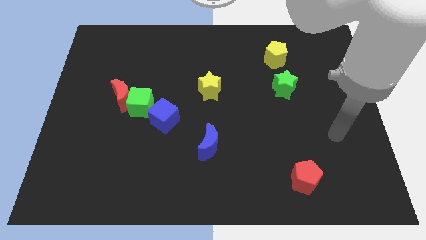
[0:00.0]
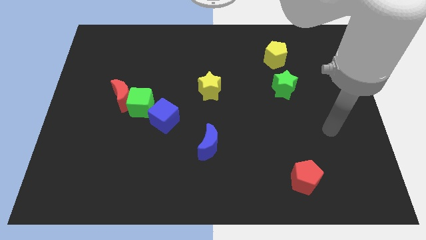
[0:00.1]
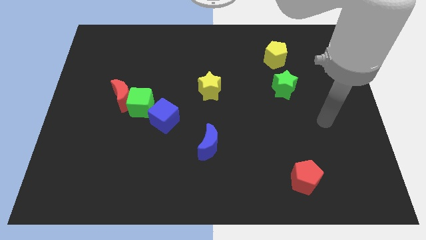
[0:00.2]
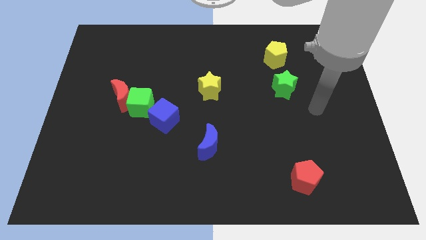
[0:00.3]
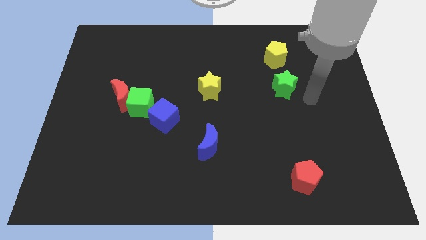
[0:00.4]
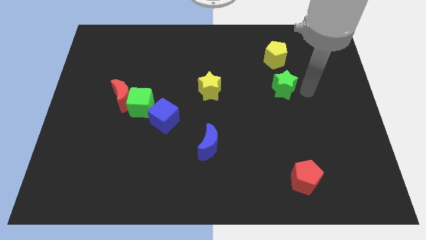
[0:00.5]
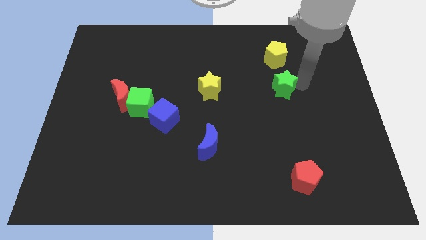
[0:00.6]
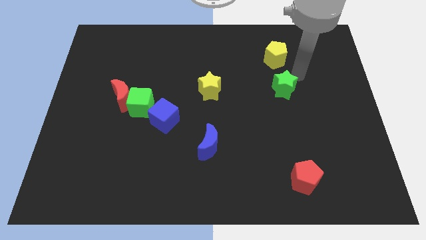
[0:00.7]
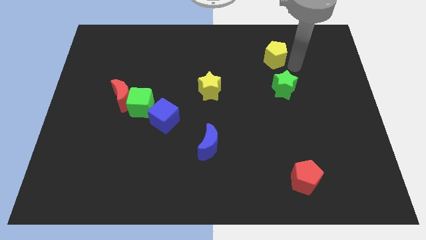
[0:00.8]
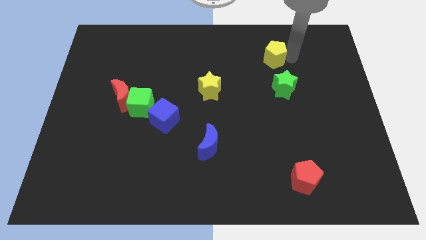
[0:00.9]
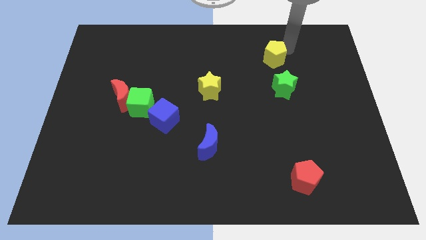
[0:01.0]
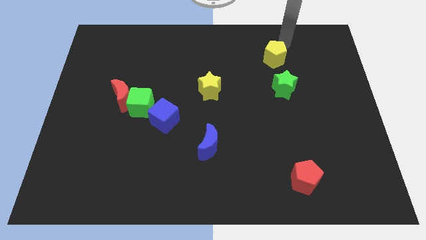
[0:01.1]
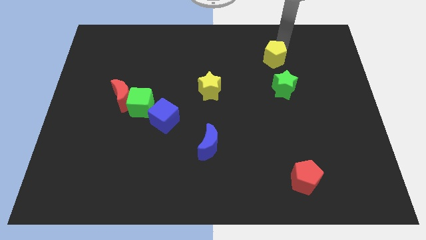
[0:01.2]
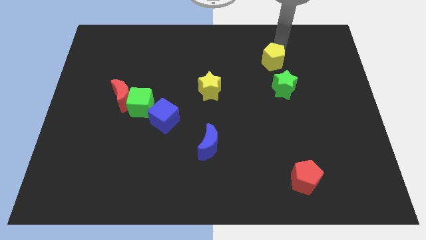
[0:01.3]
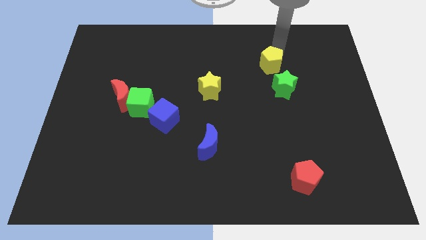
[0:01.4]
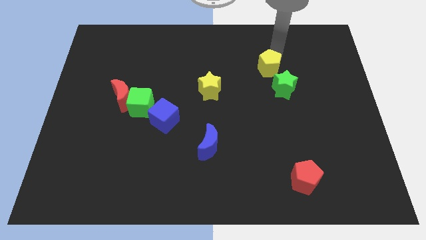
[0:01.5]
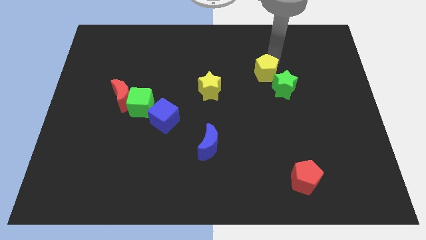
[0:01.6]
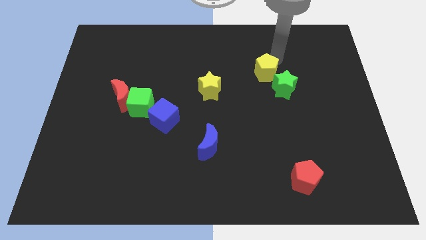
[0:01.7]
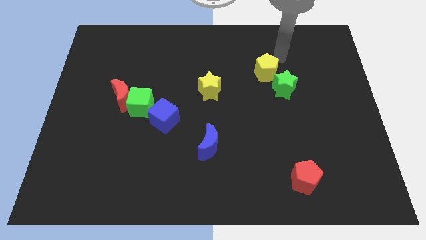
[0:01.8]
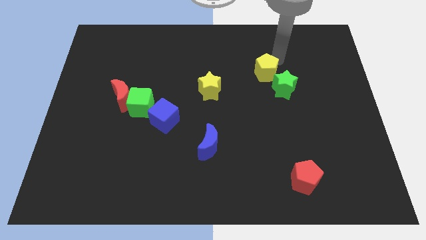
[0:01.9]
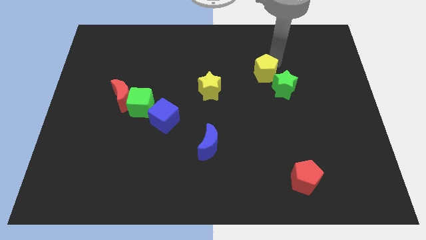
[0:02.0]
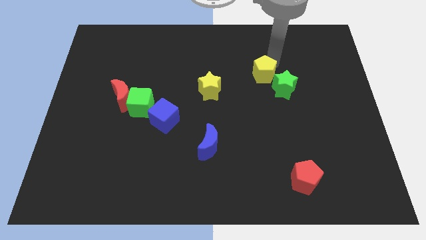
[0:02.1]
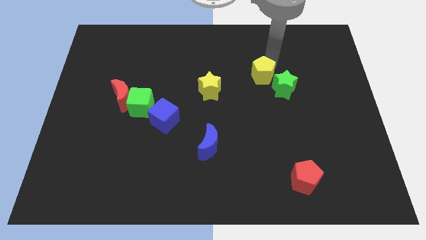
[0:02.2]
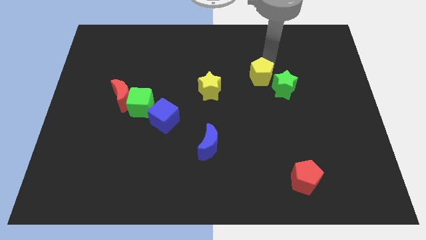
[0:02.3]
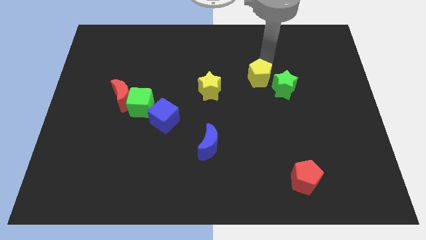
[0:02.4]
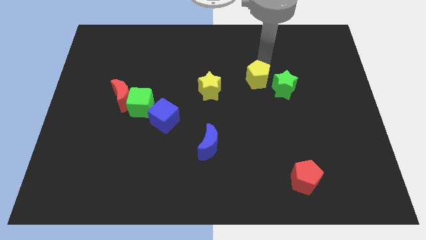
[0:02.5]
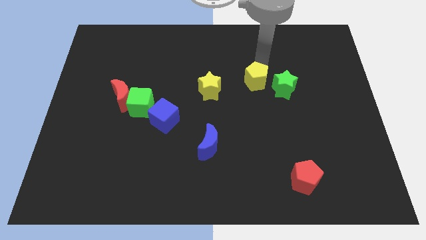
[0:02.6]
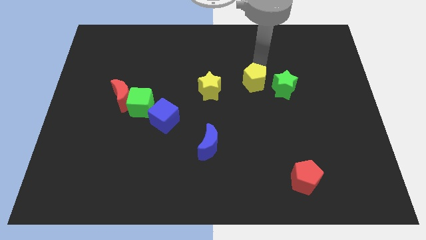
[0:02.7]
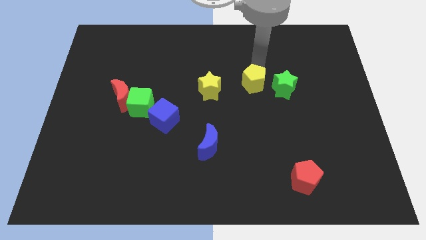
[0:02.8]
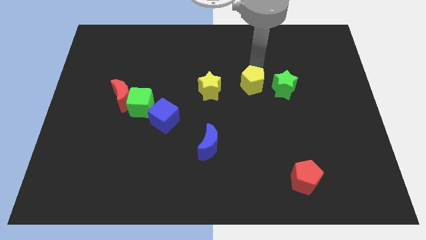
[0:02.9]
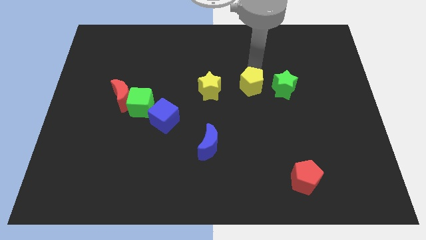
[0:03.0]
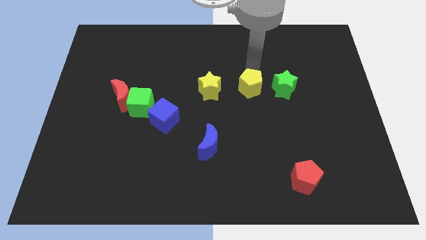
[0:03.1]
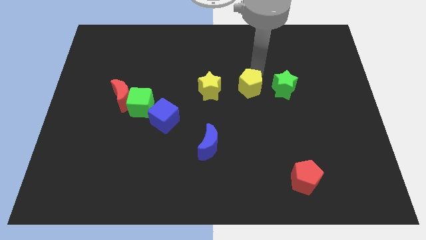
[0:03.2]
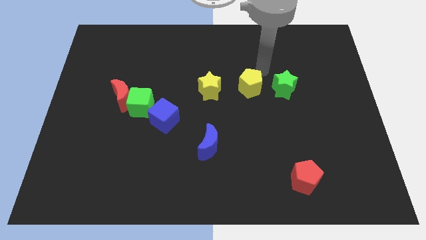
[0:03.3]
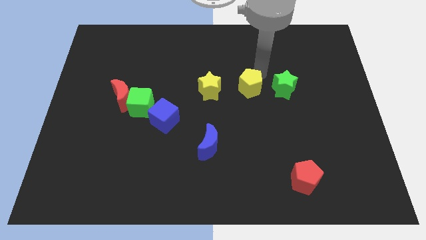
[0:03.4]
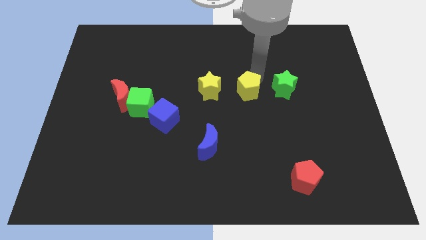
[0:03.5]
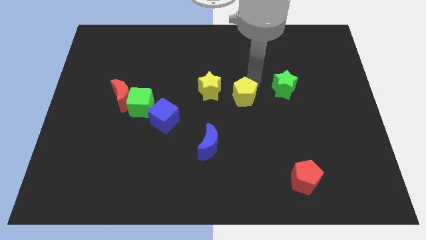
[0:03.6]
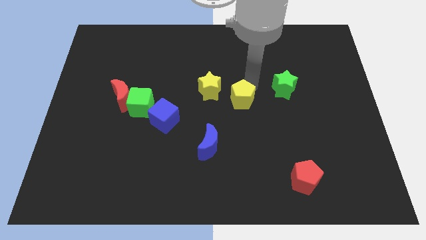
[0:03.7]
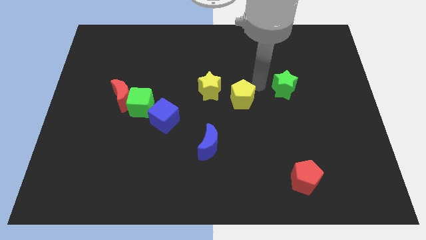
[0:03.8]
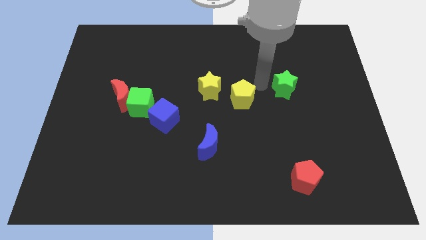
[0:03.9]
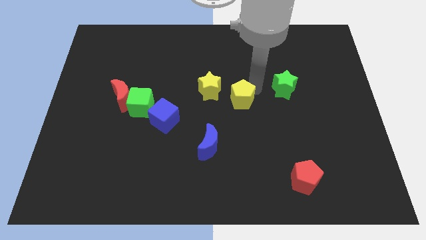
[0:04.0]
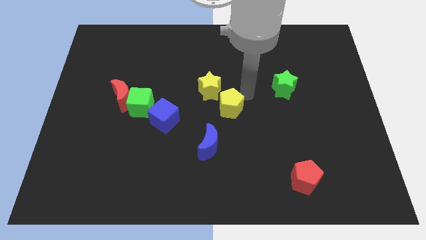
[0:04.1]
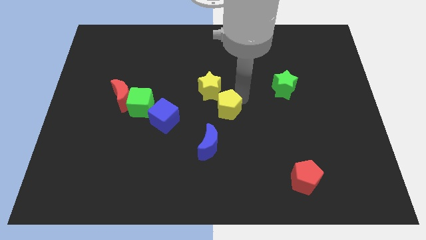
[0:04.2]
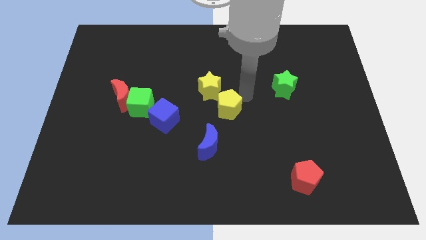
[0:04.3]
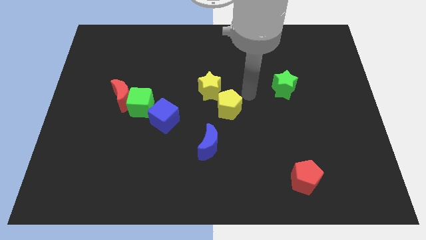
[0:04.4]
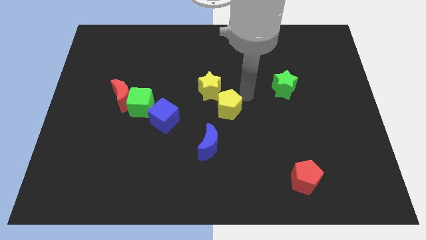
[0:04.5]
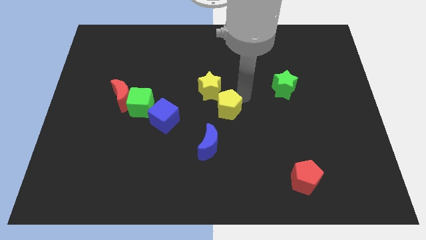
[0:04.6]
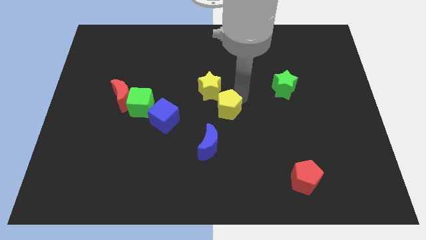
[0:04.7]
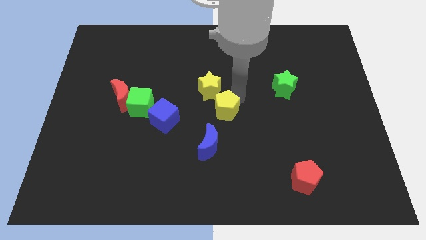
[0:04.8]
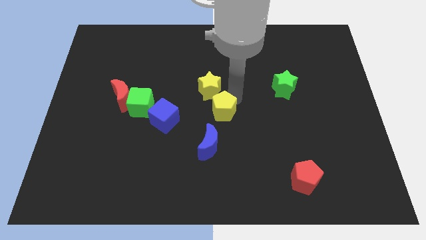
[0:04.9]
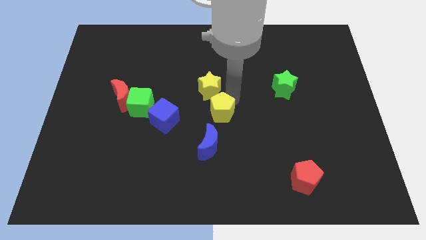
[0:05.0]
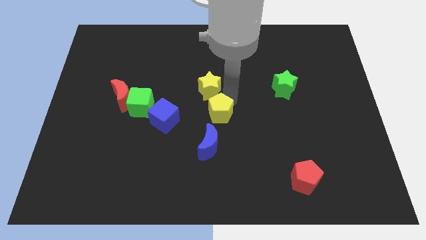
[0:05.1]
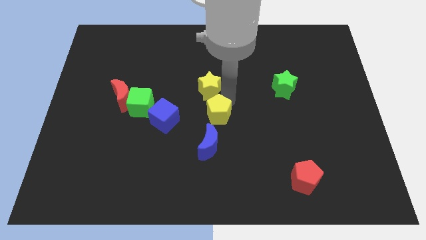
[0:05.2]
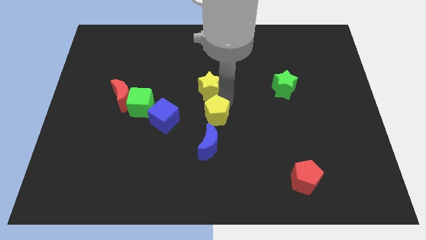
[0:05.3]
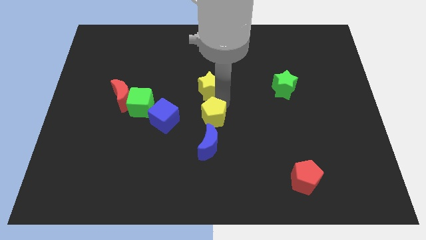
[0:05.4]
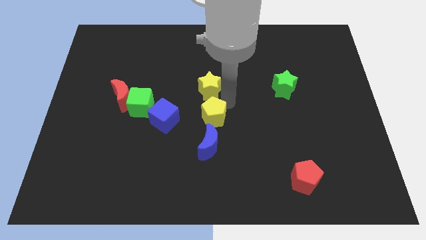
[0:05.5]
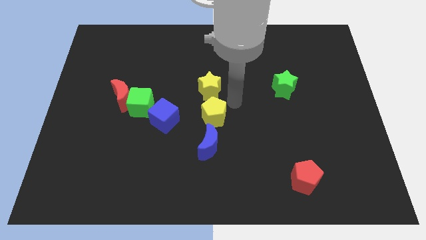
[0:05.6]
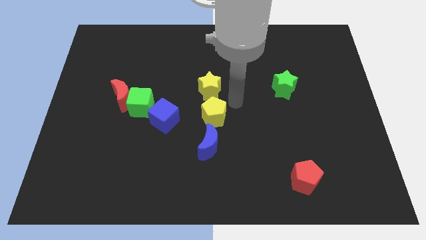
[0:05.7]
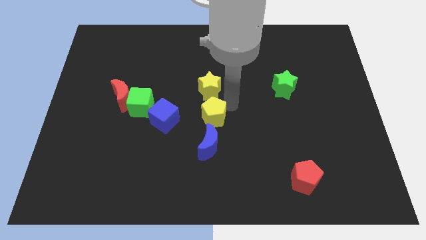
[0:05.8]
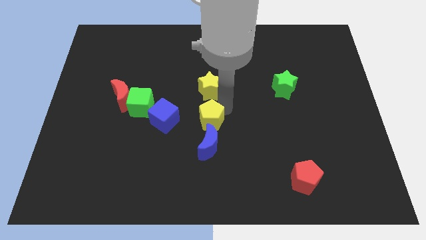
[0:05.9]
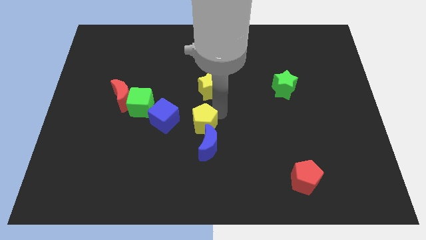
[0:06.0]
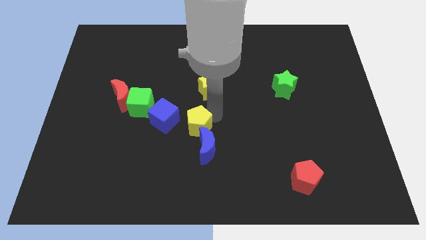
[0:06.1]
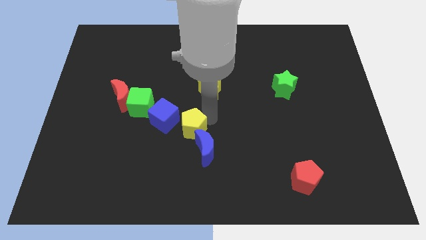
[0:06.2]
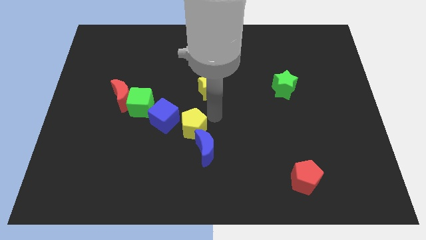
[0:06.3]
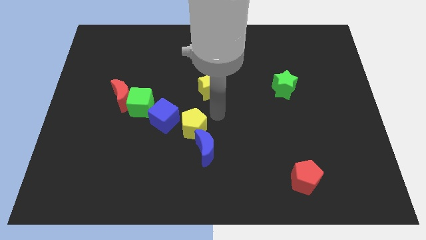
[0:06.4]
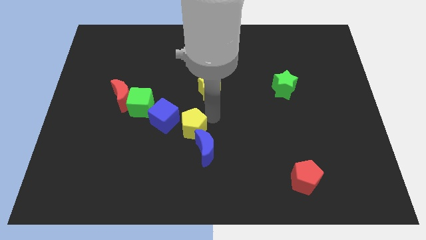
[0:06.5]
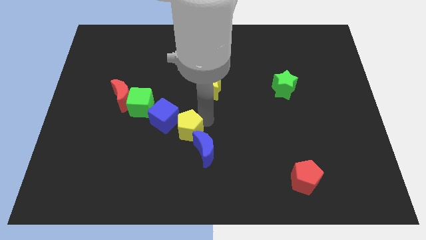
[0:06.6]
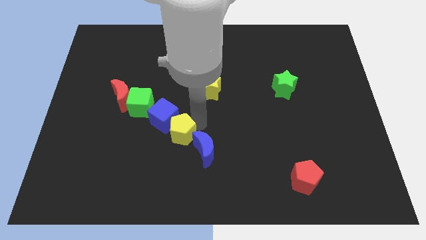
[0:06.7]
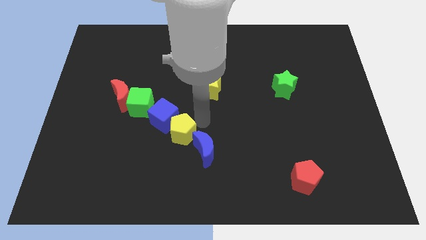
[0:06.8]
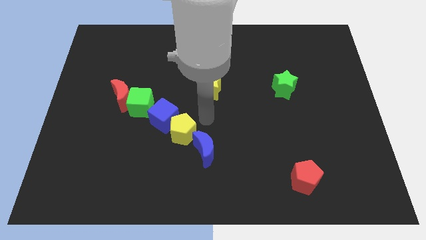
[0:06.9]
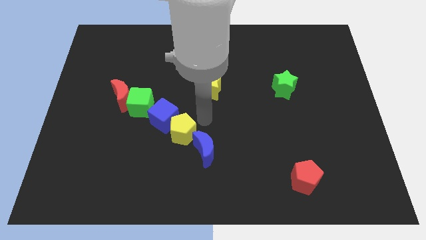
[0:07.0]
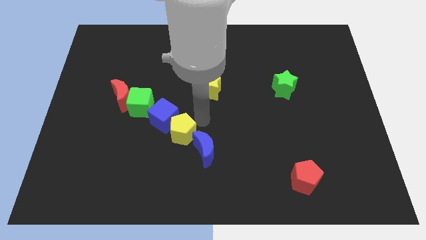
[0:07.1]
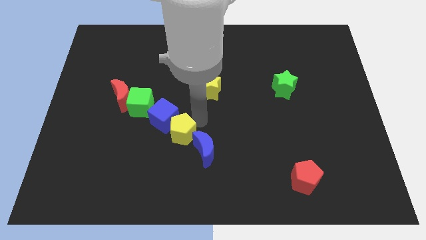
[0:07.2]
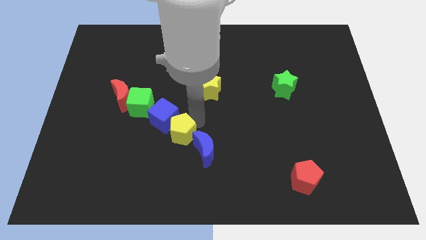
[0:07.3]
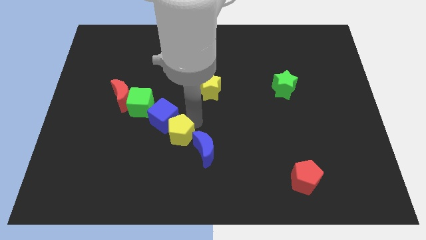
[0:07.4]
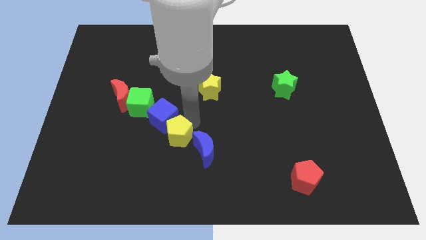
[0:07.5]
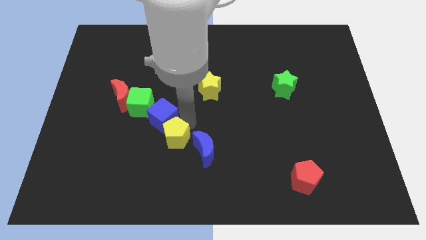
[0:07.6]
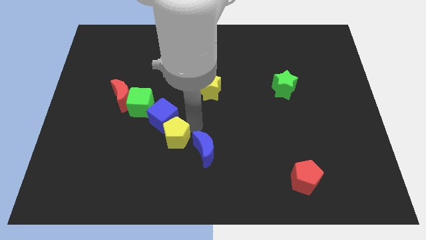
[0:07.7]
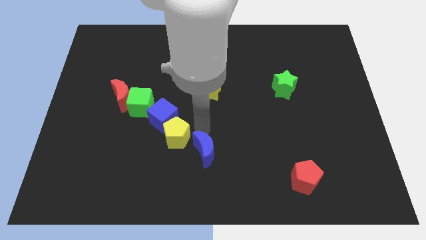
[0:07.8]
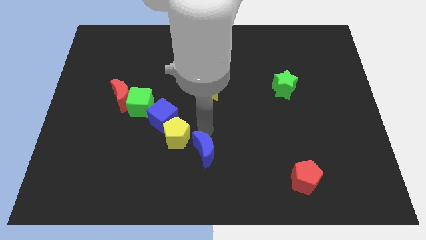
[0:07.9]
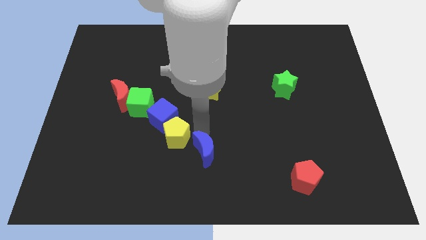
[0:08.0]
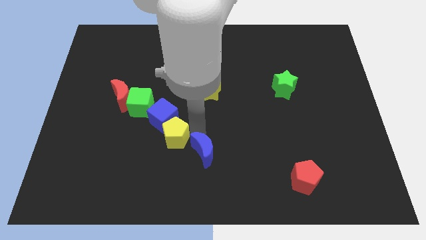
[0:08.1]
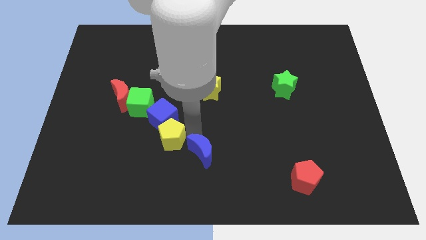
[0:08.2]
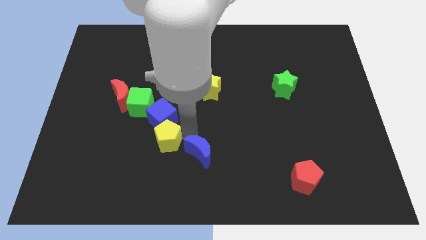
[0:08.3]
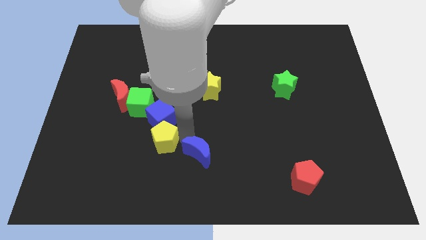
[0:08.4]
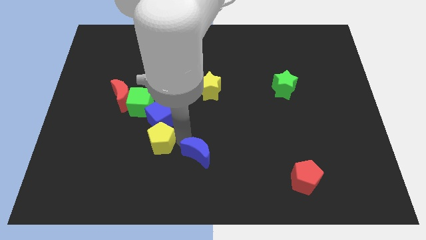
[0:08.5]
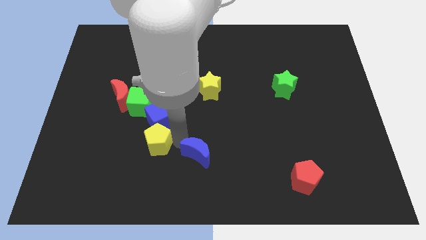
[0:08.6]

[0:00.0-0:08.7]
move the yellow pentagon to the bottom side of the green cube
